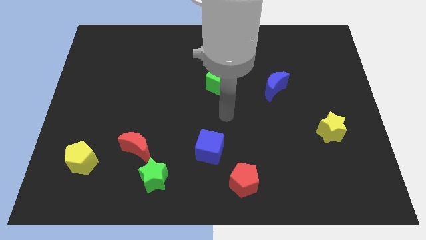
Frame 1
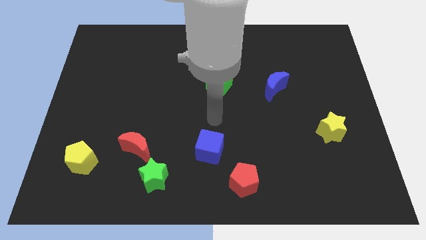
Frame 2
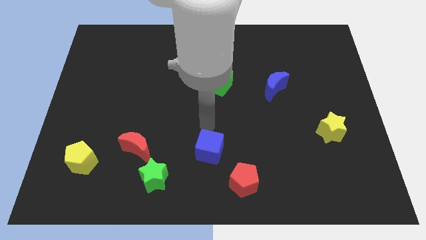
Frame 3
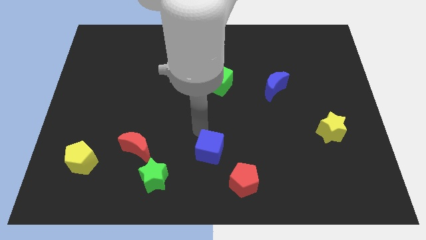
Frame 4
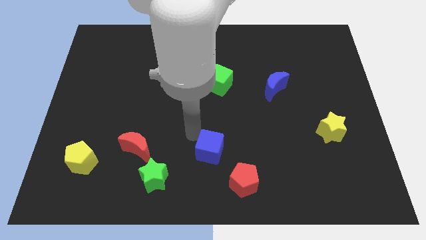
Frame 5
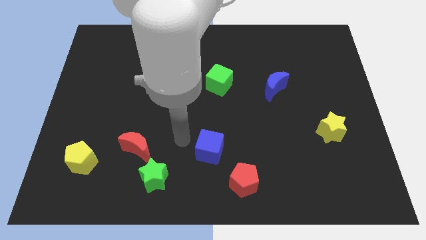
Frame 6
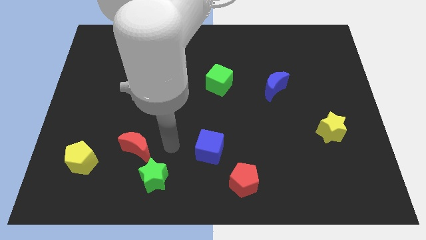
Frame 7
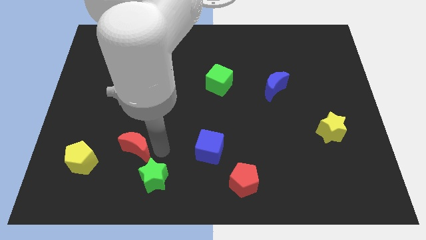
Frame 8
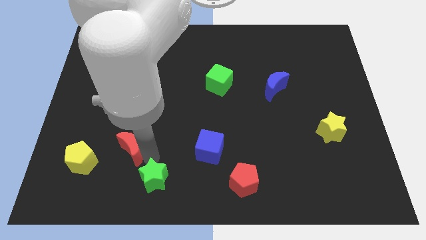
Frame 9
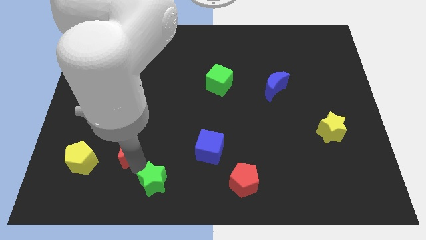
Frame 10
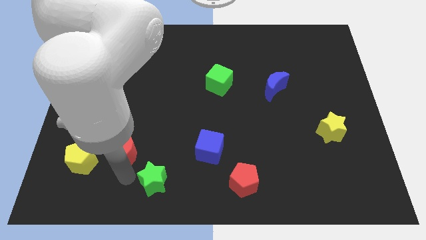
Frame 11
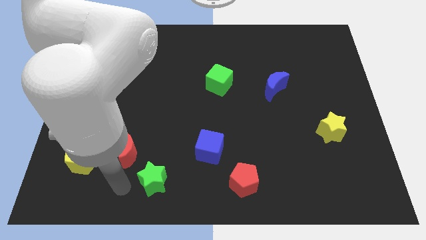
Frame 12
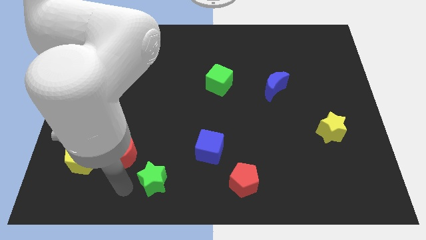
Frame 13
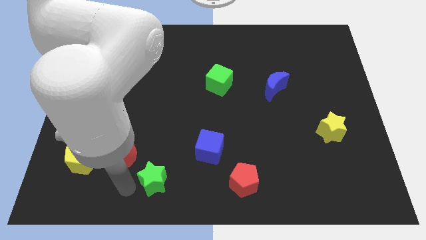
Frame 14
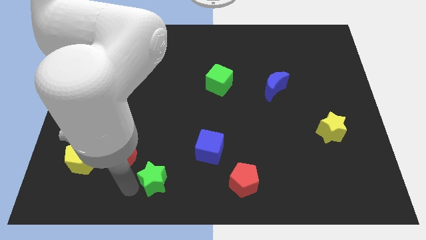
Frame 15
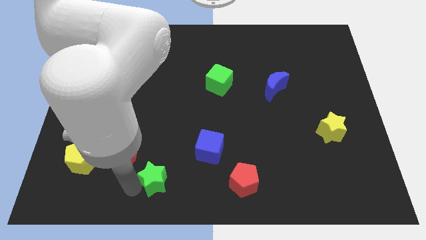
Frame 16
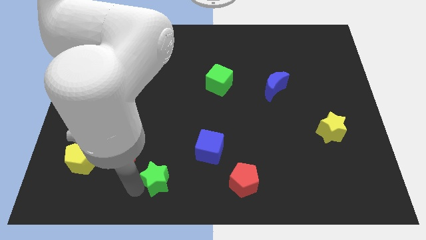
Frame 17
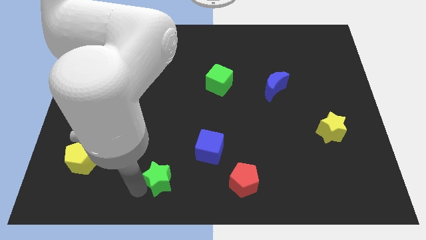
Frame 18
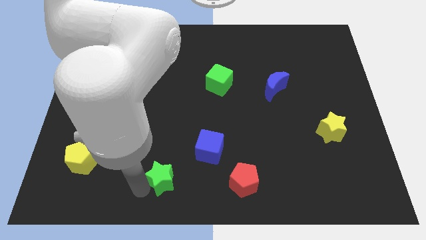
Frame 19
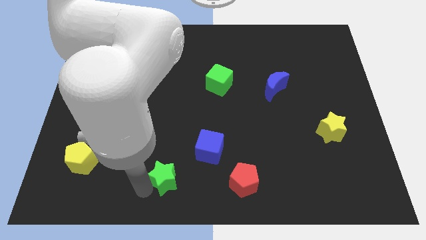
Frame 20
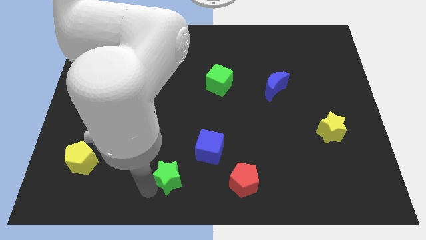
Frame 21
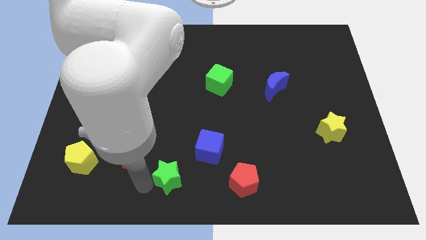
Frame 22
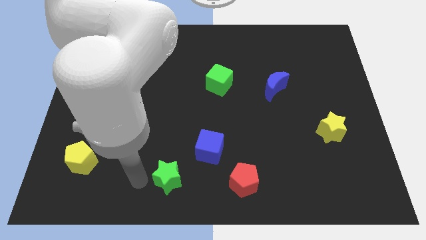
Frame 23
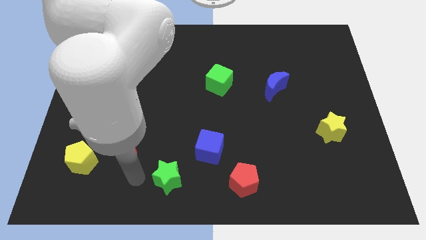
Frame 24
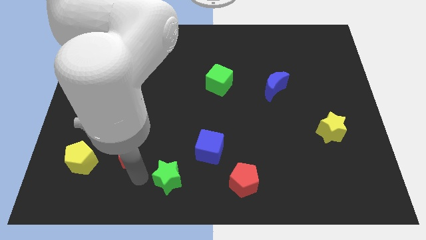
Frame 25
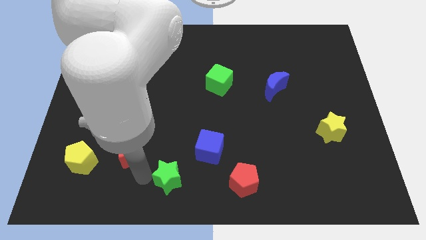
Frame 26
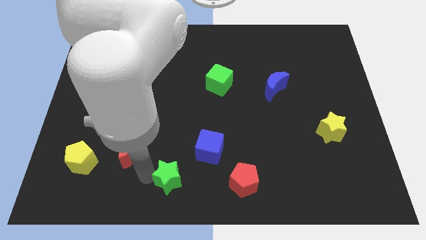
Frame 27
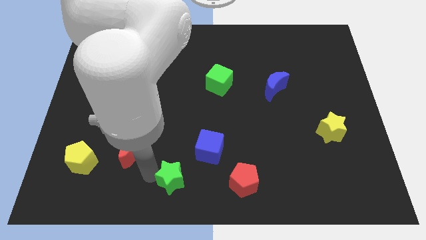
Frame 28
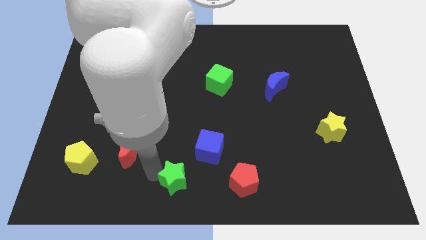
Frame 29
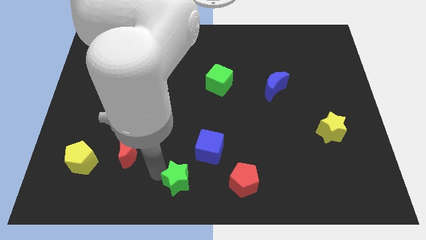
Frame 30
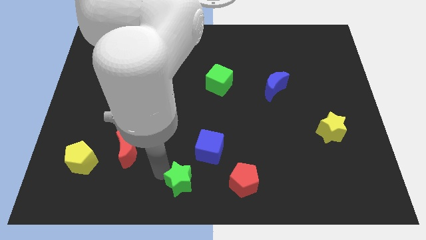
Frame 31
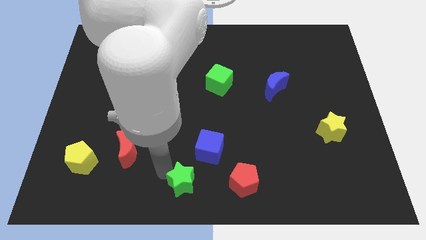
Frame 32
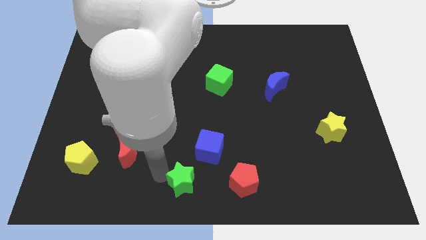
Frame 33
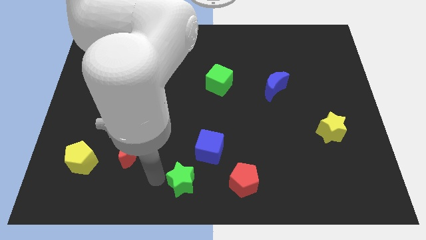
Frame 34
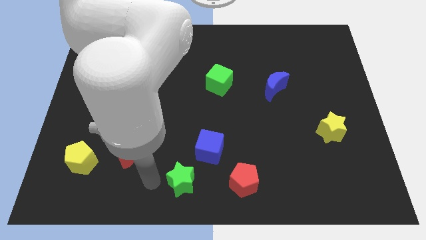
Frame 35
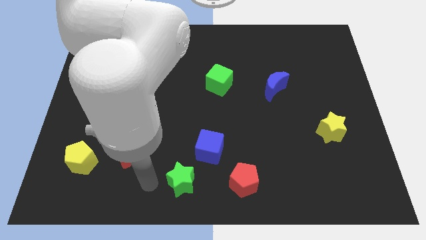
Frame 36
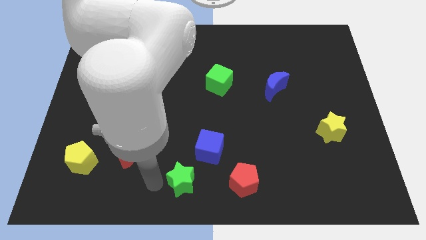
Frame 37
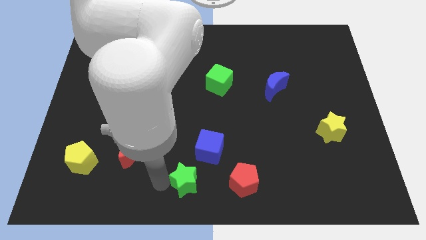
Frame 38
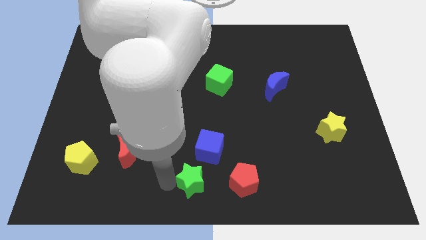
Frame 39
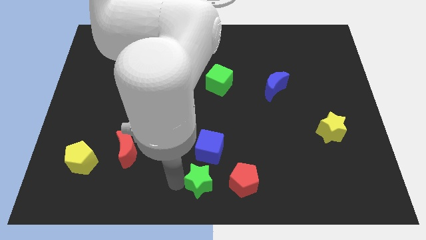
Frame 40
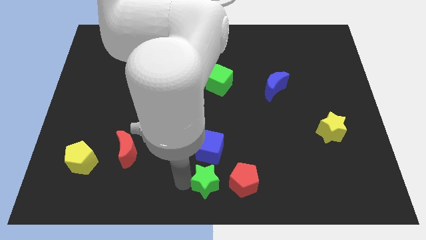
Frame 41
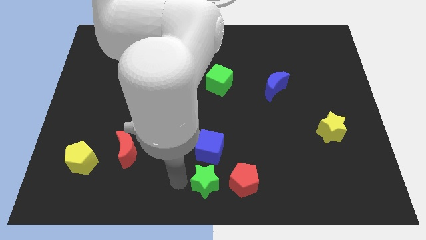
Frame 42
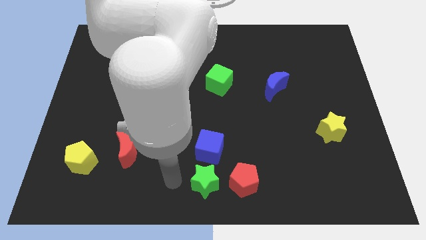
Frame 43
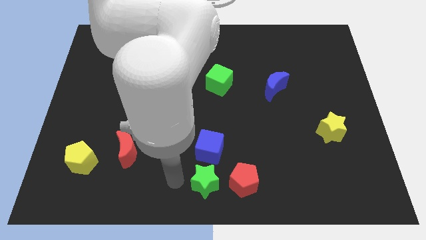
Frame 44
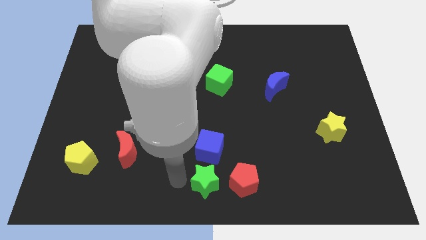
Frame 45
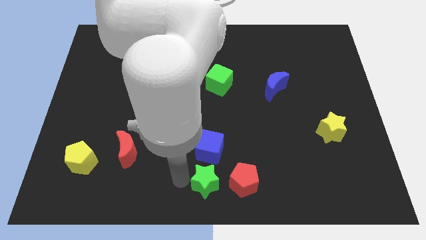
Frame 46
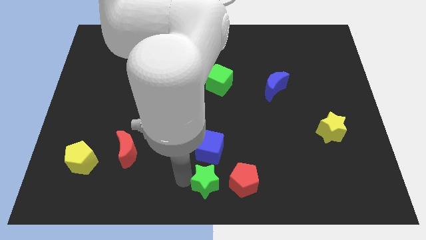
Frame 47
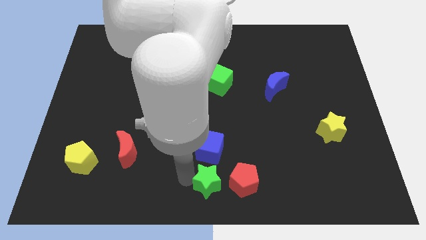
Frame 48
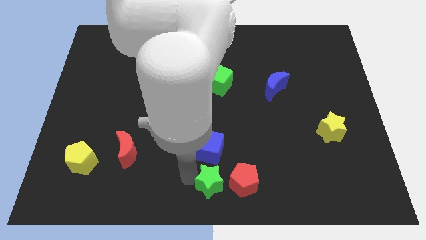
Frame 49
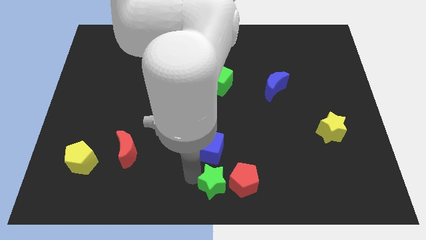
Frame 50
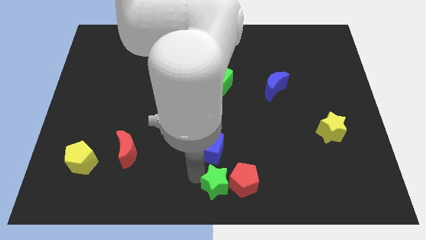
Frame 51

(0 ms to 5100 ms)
put the green star to the red pentagon

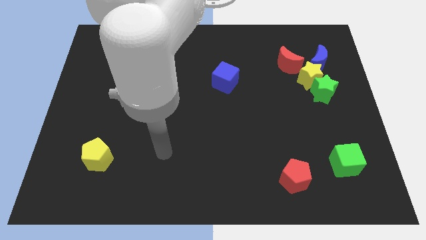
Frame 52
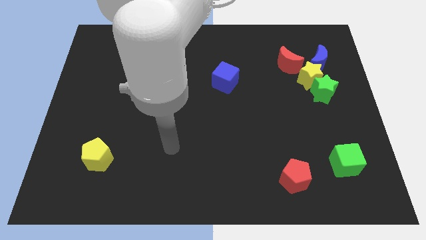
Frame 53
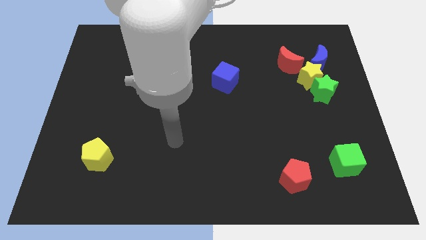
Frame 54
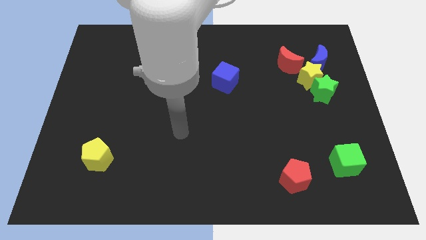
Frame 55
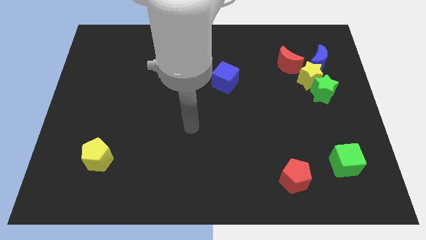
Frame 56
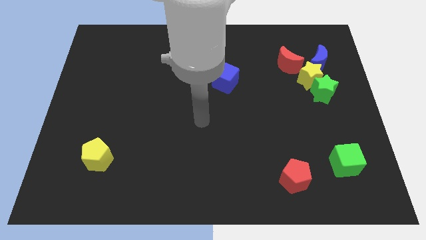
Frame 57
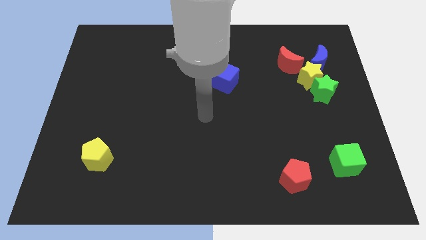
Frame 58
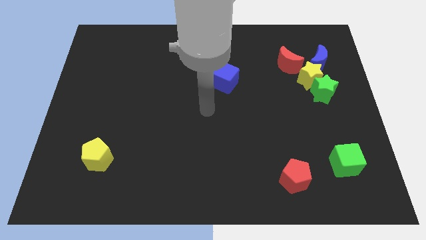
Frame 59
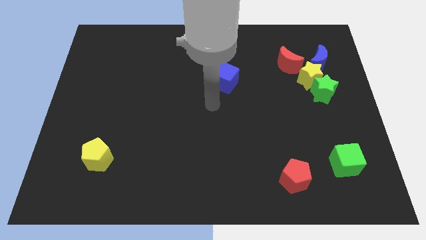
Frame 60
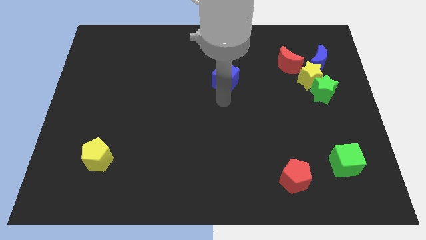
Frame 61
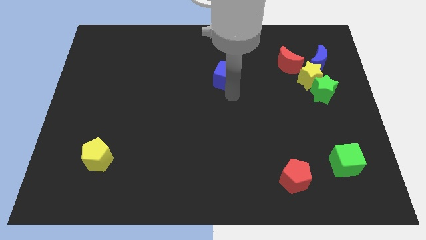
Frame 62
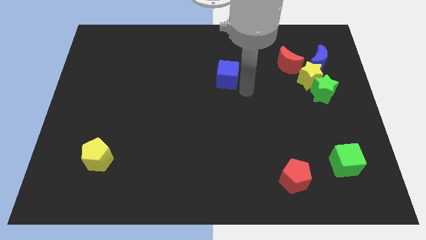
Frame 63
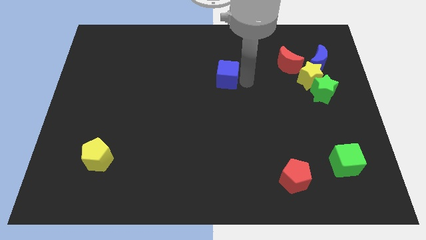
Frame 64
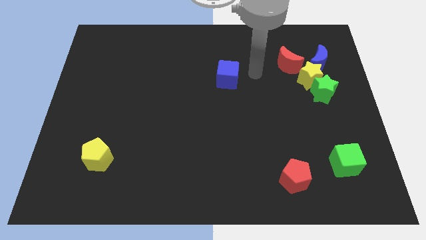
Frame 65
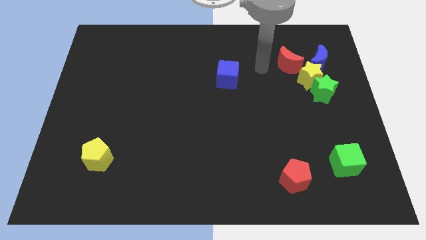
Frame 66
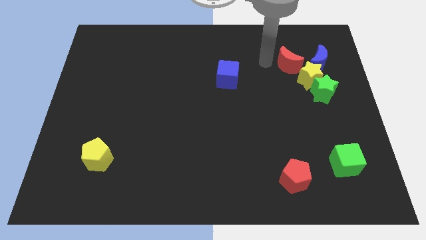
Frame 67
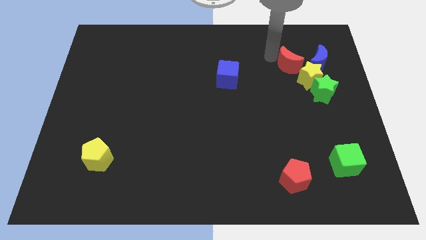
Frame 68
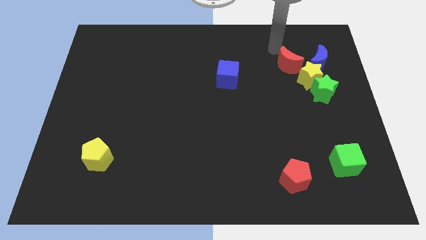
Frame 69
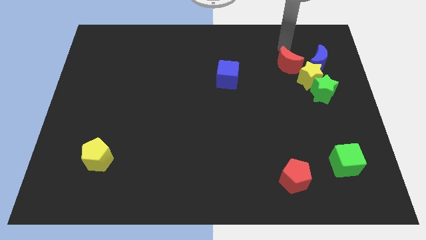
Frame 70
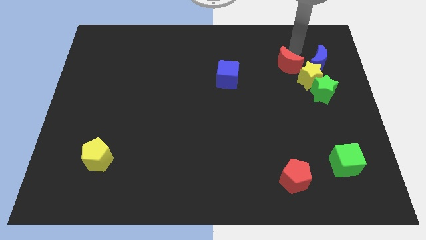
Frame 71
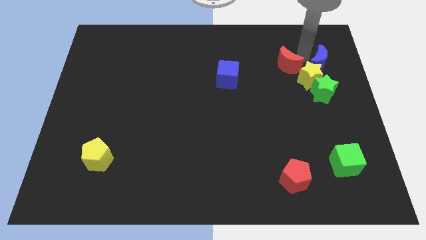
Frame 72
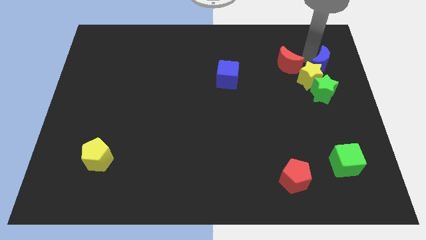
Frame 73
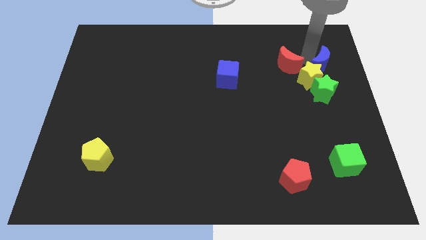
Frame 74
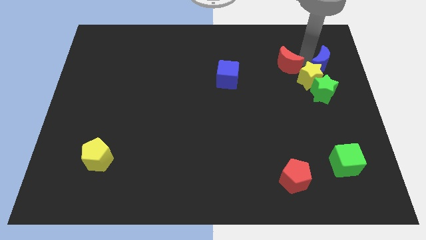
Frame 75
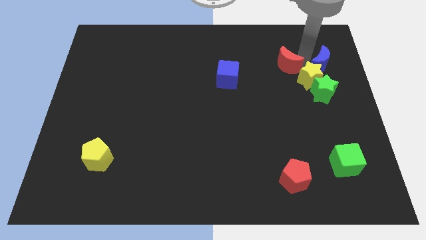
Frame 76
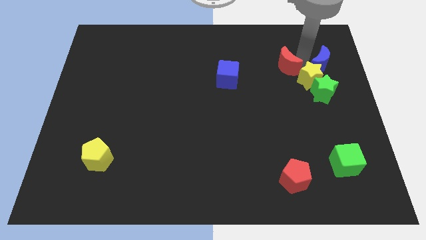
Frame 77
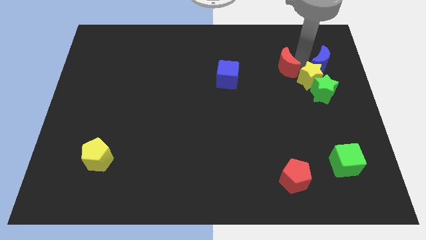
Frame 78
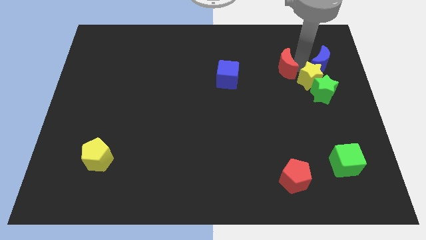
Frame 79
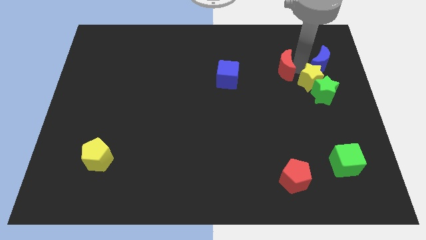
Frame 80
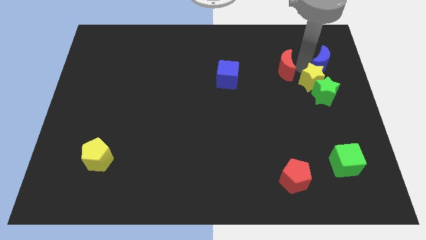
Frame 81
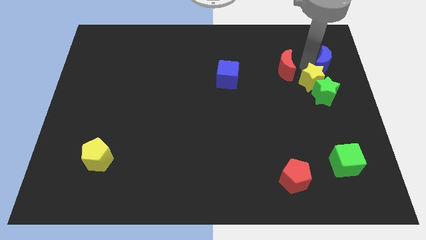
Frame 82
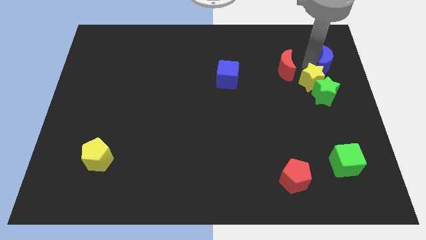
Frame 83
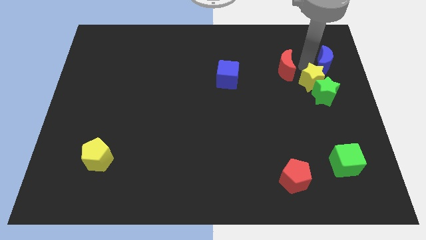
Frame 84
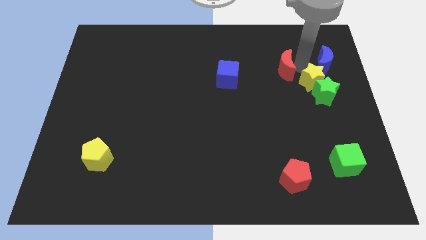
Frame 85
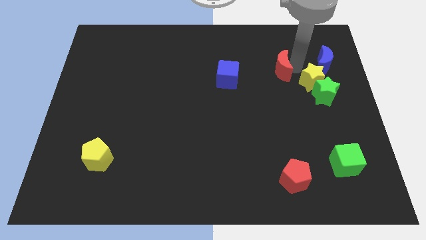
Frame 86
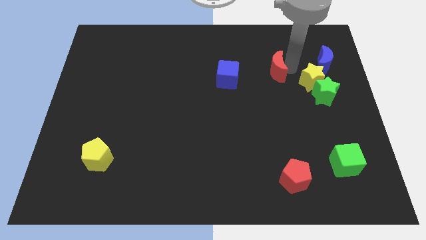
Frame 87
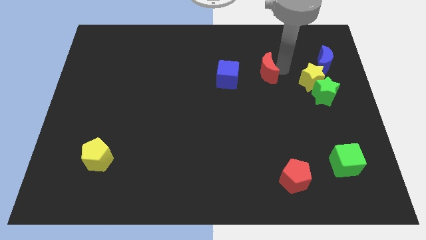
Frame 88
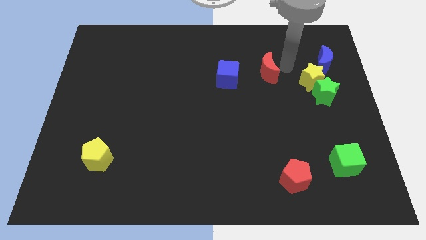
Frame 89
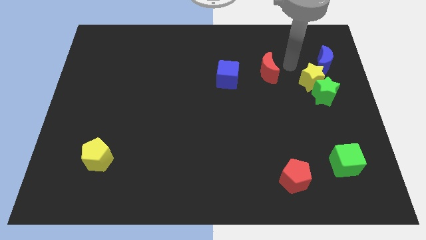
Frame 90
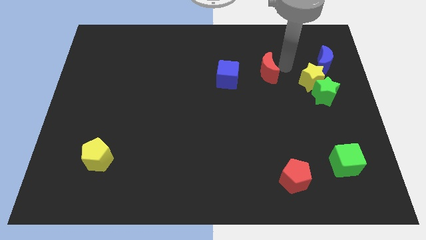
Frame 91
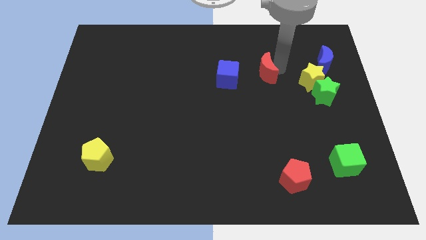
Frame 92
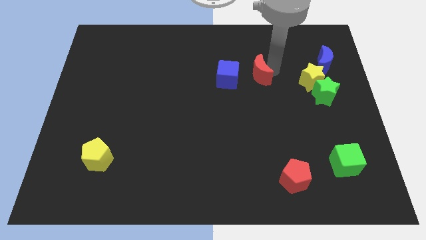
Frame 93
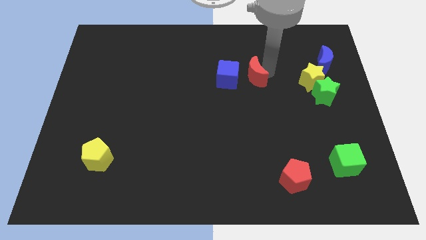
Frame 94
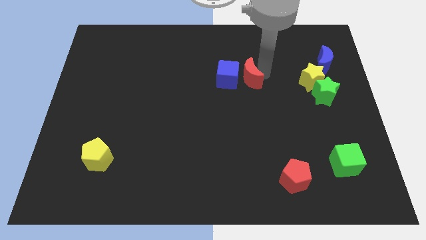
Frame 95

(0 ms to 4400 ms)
move the red moon close to the blue cube
